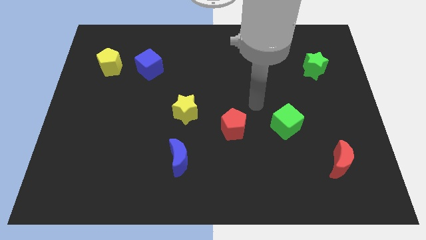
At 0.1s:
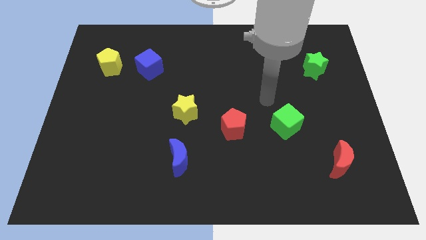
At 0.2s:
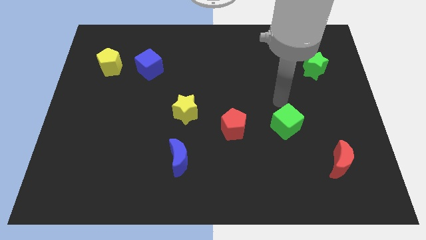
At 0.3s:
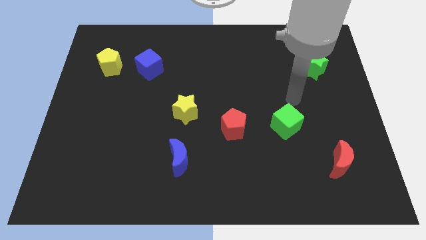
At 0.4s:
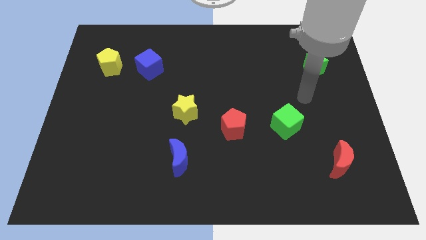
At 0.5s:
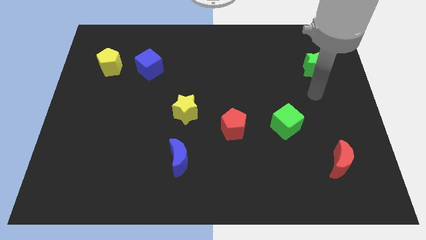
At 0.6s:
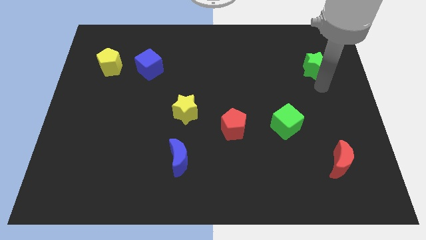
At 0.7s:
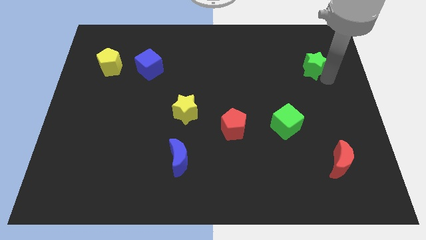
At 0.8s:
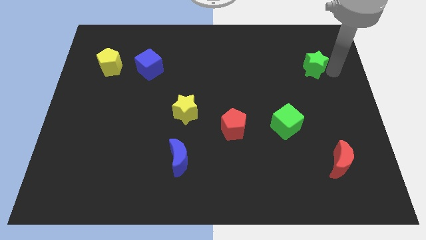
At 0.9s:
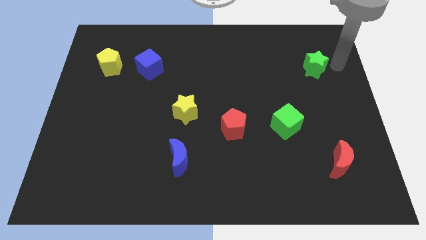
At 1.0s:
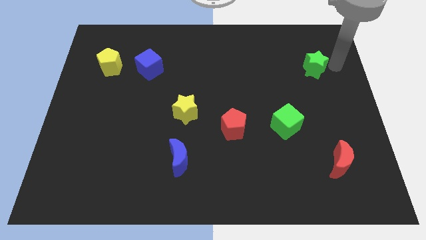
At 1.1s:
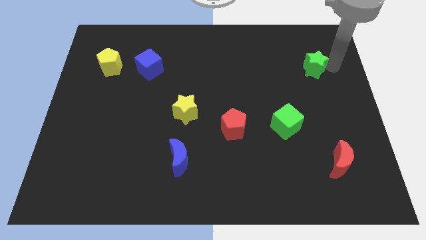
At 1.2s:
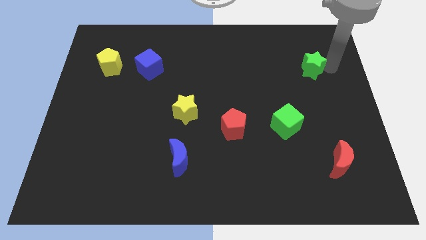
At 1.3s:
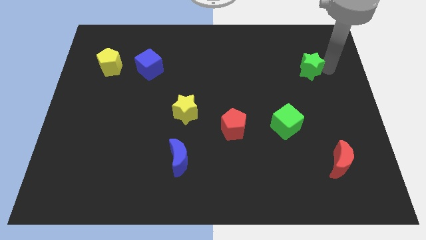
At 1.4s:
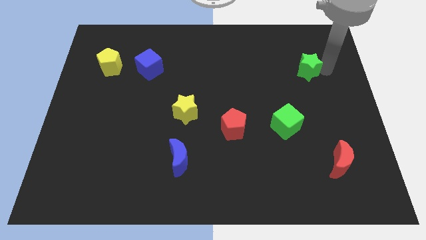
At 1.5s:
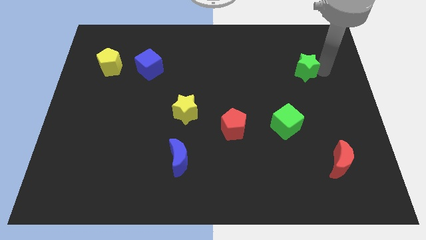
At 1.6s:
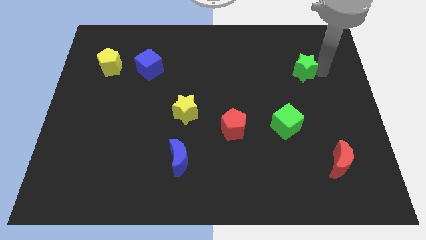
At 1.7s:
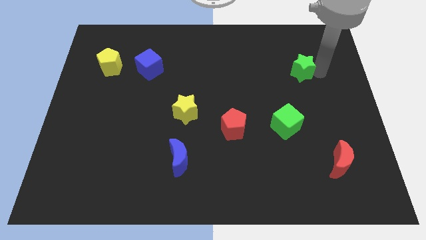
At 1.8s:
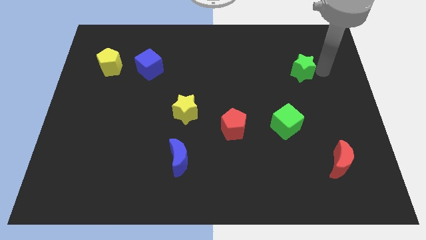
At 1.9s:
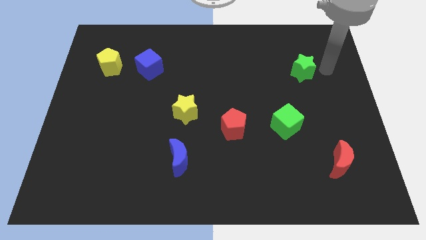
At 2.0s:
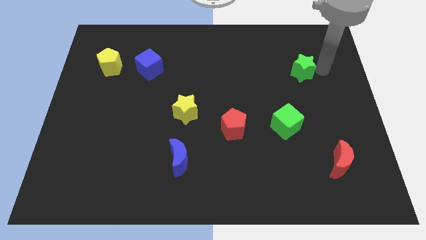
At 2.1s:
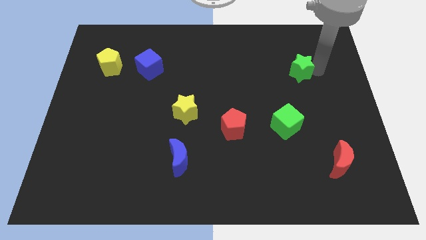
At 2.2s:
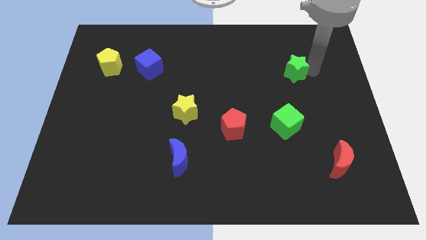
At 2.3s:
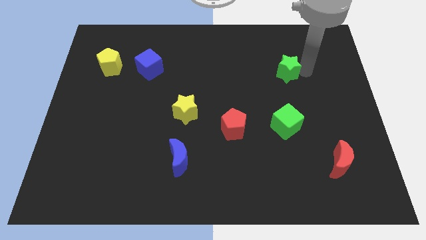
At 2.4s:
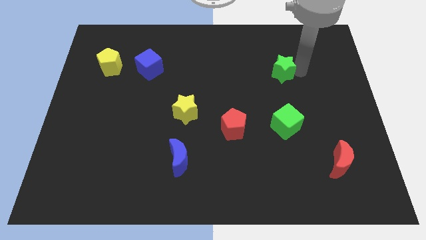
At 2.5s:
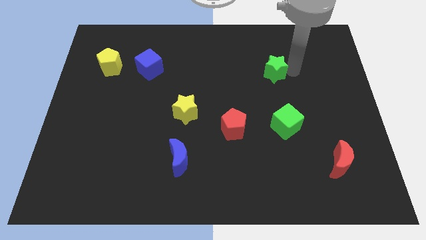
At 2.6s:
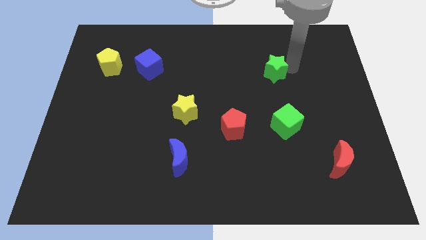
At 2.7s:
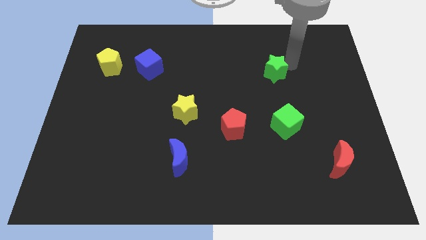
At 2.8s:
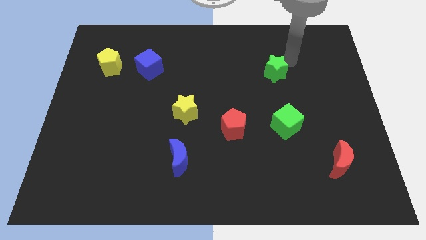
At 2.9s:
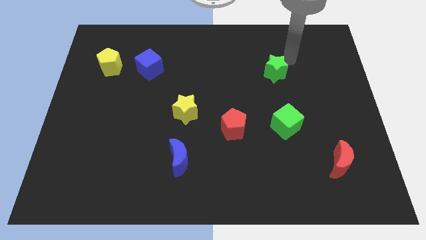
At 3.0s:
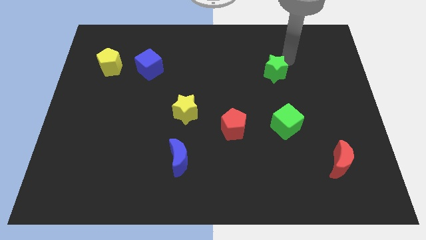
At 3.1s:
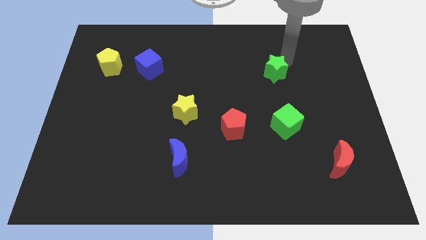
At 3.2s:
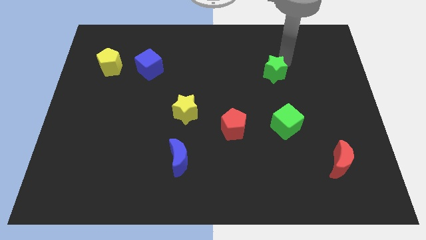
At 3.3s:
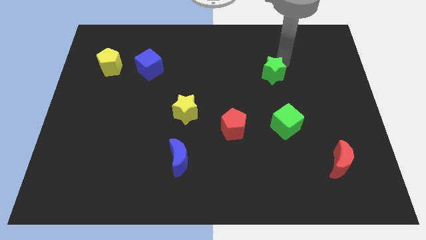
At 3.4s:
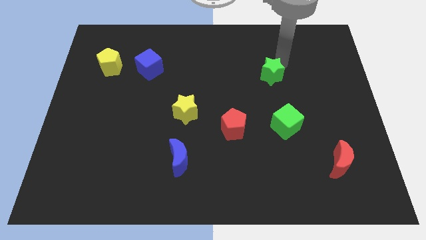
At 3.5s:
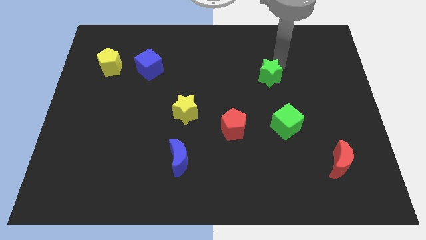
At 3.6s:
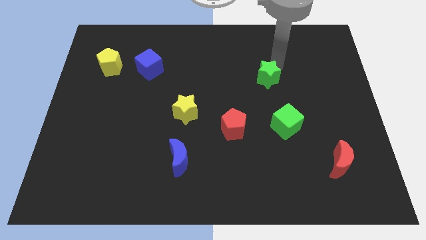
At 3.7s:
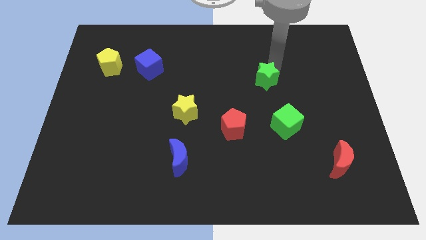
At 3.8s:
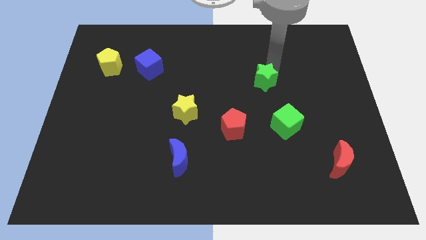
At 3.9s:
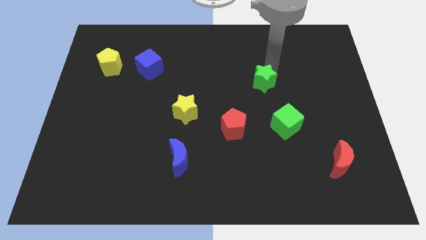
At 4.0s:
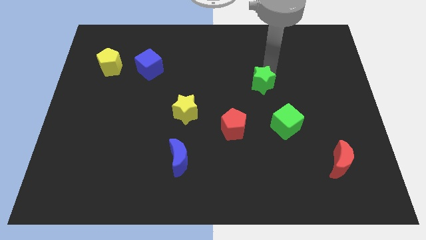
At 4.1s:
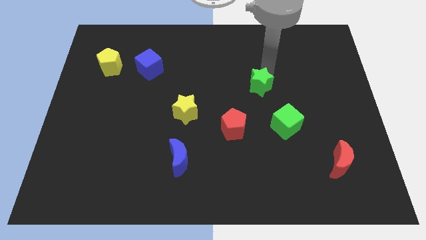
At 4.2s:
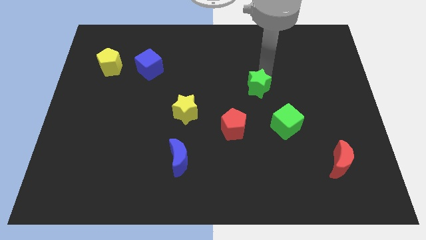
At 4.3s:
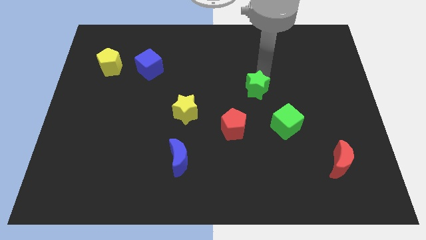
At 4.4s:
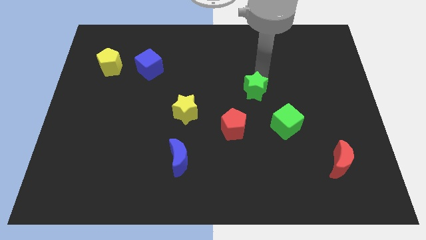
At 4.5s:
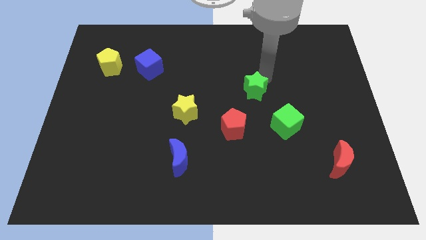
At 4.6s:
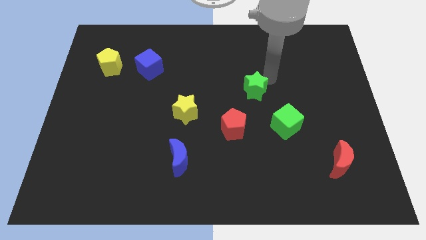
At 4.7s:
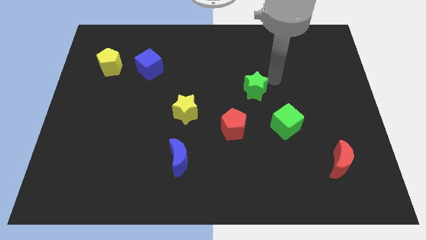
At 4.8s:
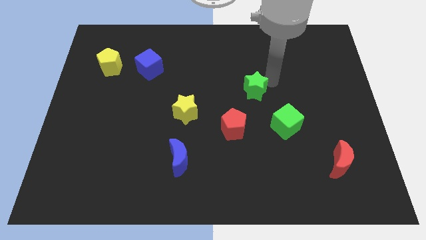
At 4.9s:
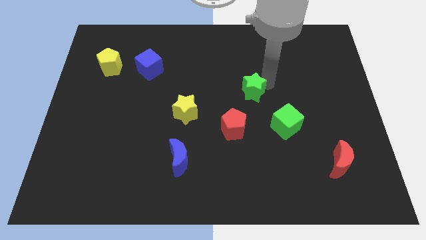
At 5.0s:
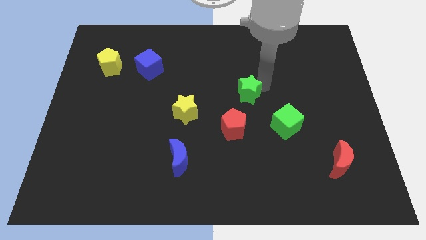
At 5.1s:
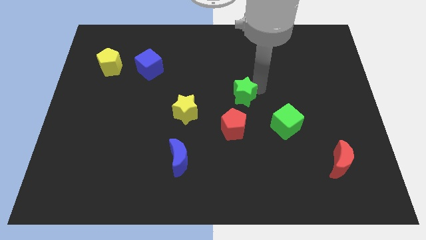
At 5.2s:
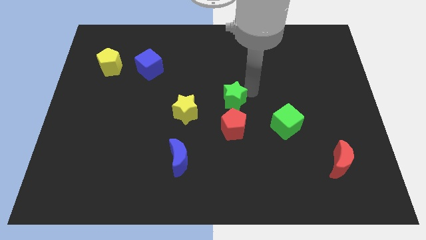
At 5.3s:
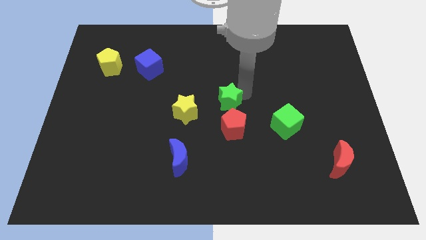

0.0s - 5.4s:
move the green star down and then left

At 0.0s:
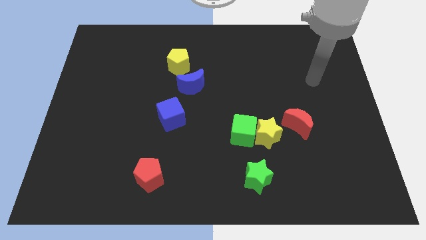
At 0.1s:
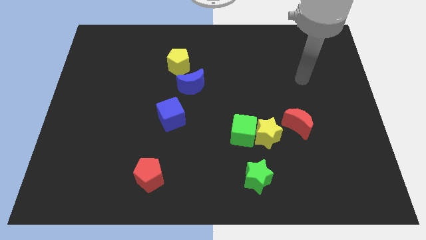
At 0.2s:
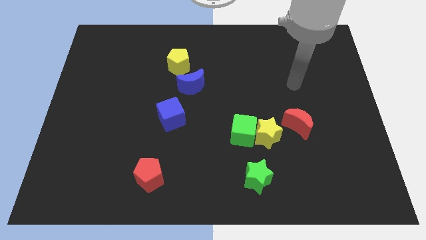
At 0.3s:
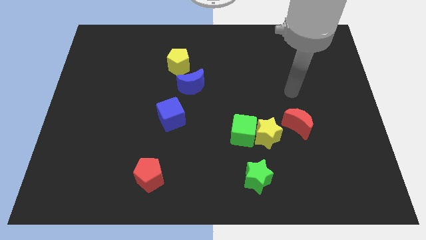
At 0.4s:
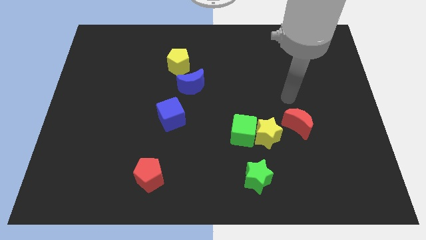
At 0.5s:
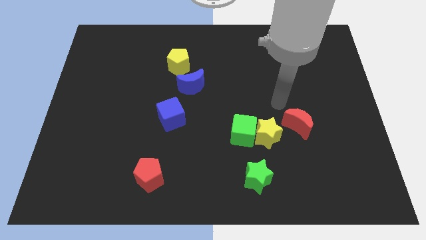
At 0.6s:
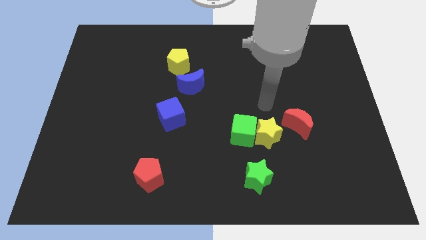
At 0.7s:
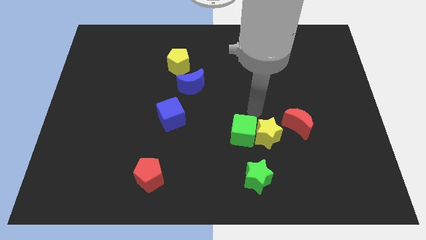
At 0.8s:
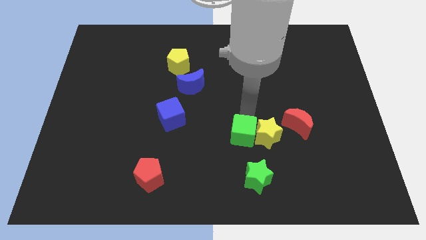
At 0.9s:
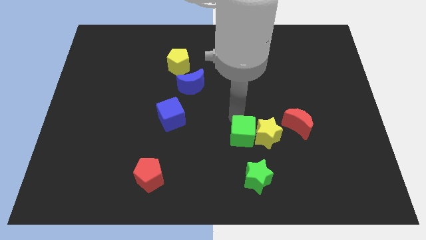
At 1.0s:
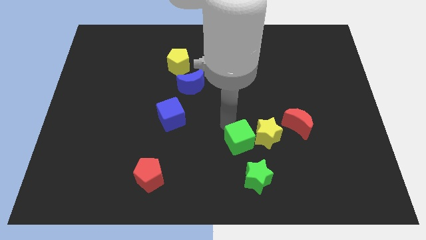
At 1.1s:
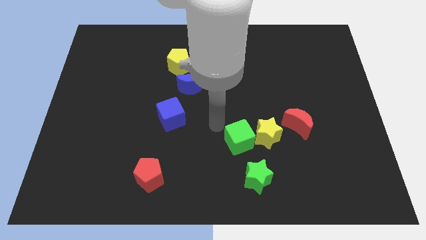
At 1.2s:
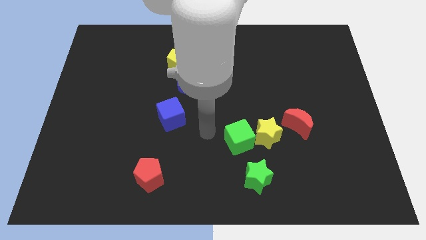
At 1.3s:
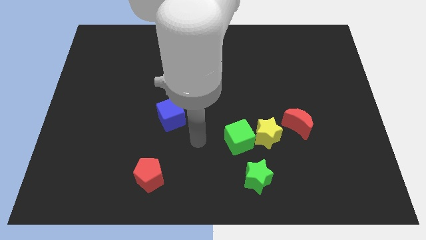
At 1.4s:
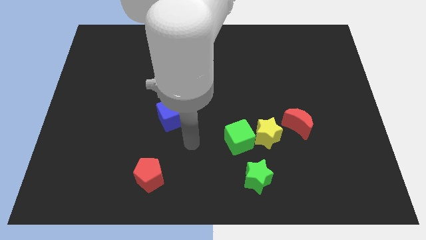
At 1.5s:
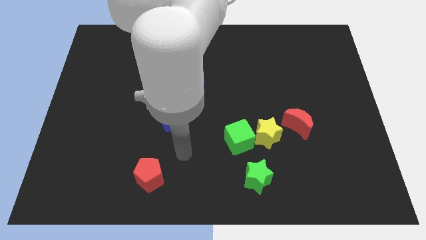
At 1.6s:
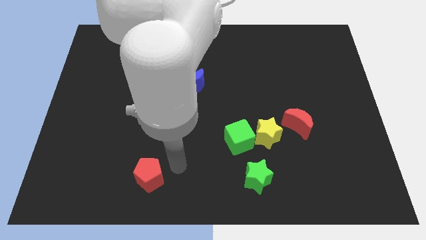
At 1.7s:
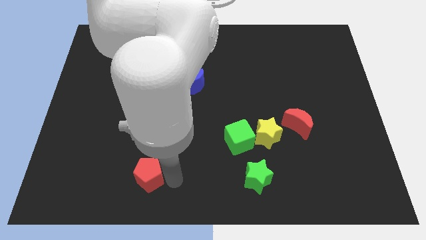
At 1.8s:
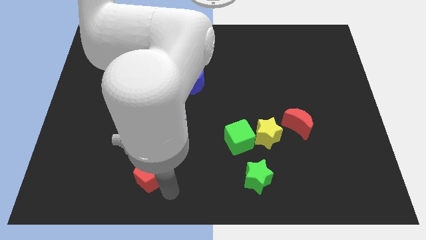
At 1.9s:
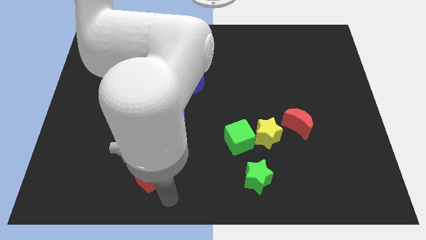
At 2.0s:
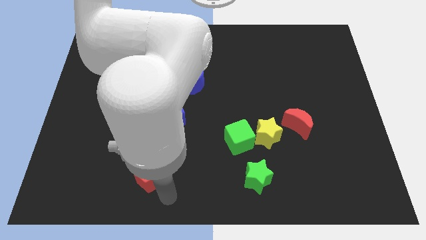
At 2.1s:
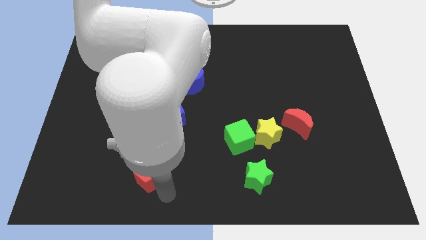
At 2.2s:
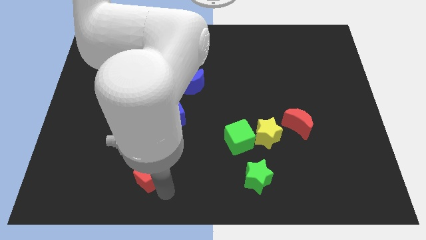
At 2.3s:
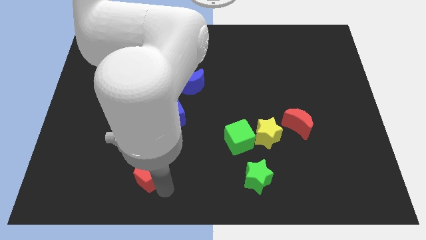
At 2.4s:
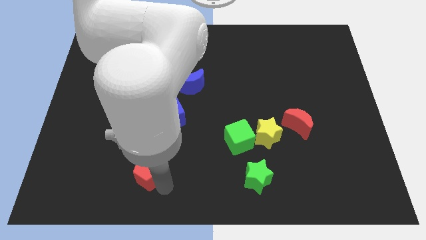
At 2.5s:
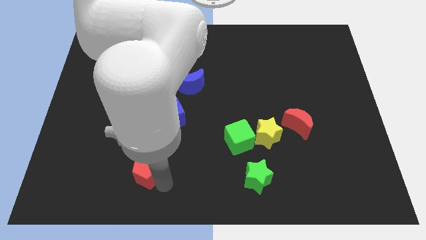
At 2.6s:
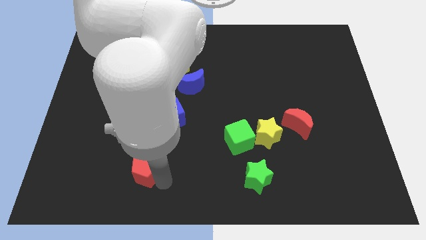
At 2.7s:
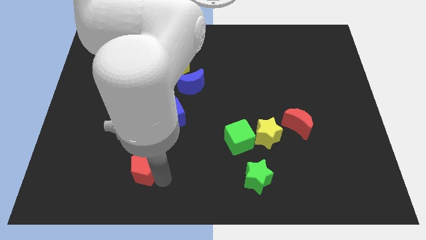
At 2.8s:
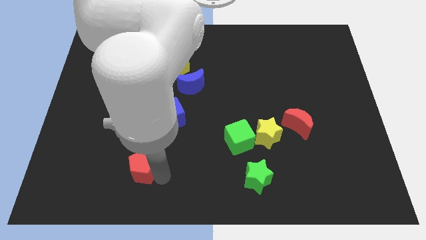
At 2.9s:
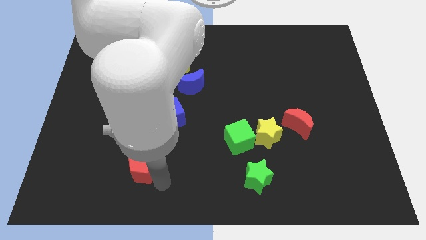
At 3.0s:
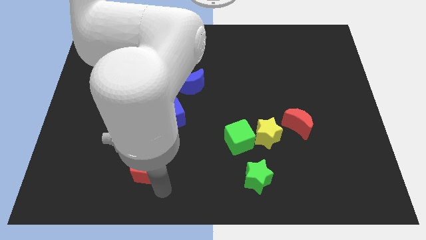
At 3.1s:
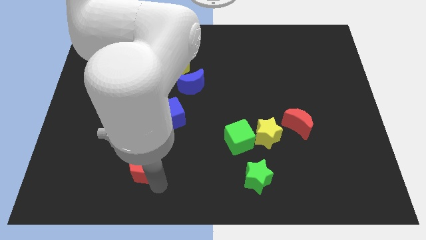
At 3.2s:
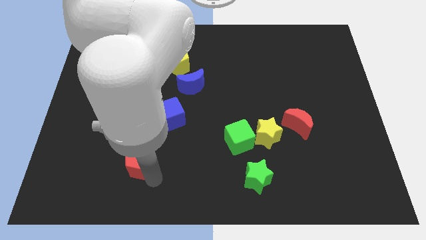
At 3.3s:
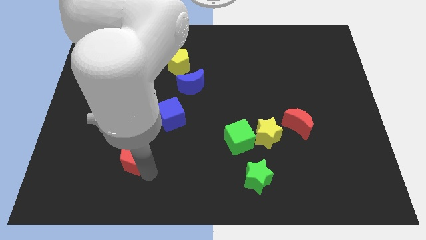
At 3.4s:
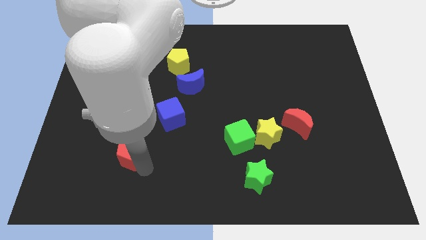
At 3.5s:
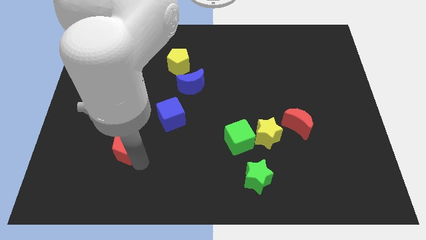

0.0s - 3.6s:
move the red pentagon up and left diagonally somewhat
